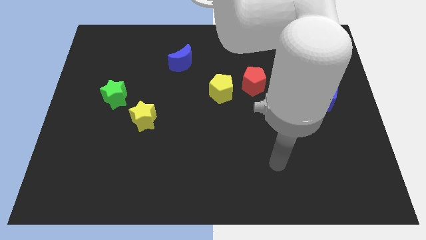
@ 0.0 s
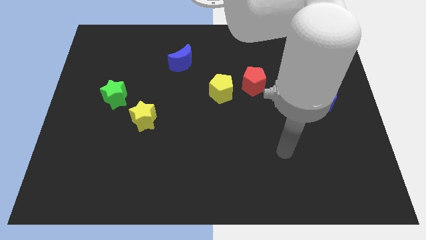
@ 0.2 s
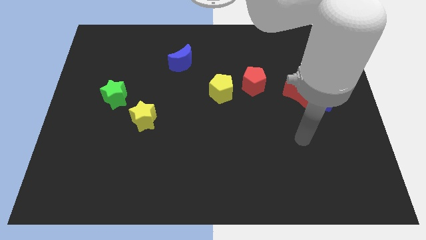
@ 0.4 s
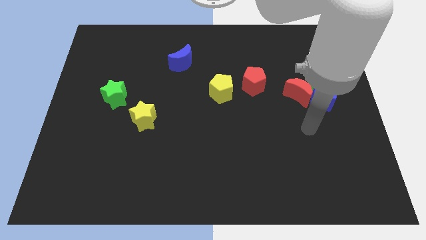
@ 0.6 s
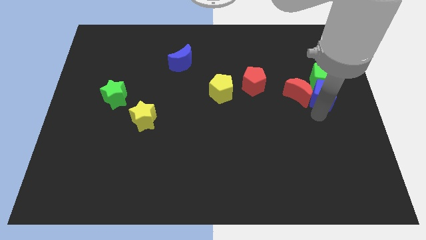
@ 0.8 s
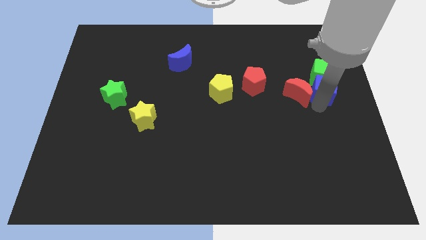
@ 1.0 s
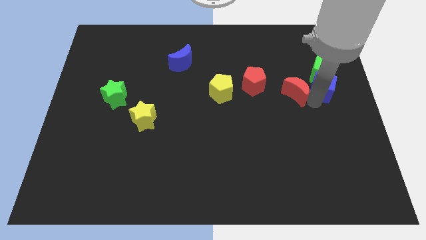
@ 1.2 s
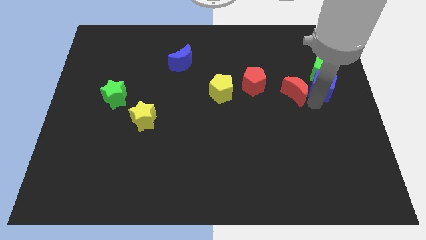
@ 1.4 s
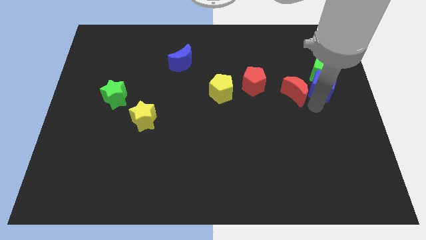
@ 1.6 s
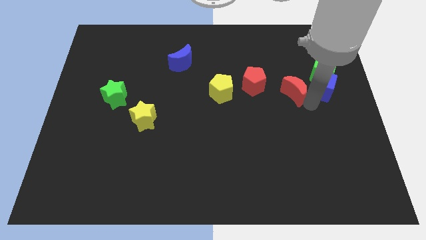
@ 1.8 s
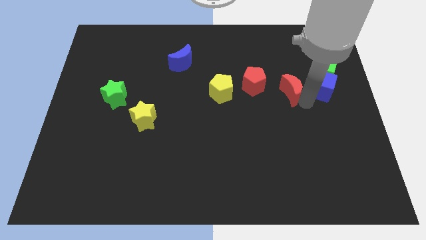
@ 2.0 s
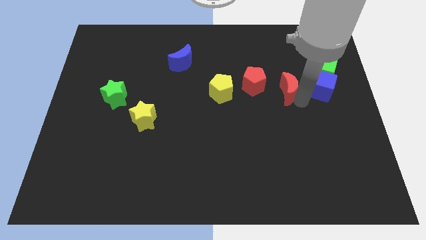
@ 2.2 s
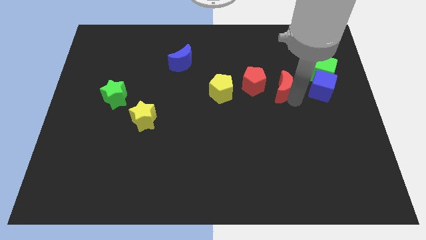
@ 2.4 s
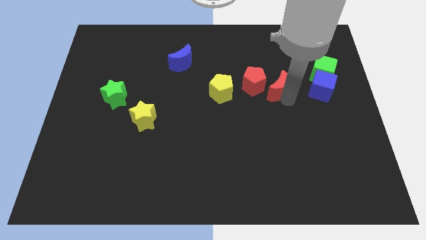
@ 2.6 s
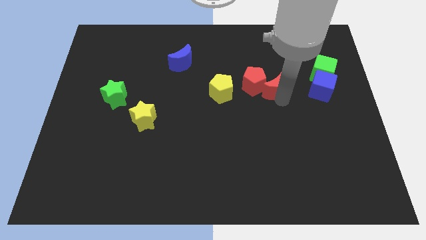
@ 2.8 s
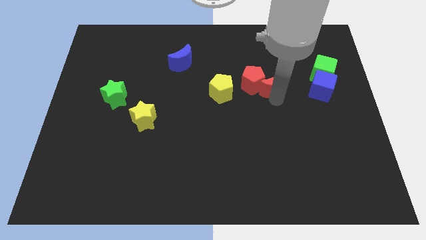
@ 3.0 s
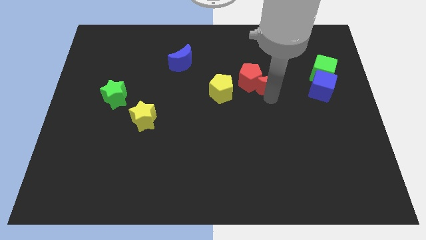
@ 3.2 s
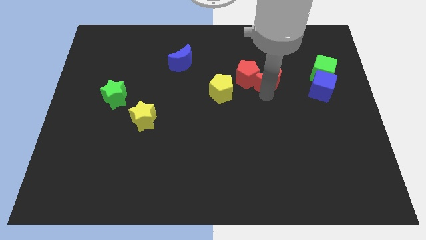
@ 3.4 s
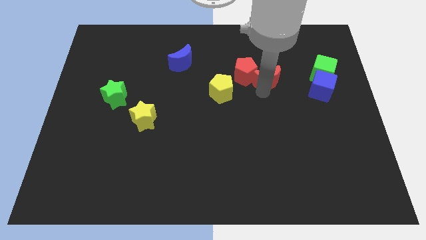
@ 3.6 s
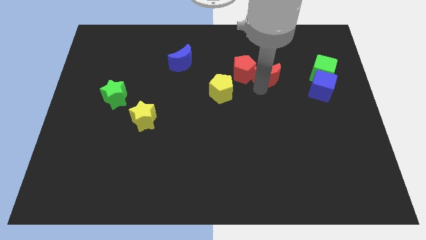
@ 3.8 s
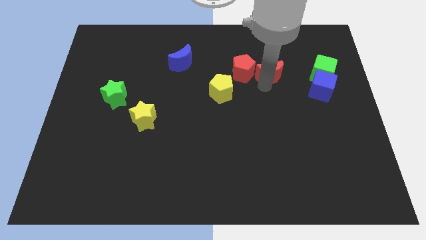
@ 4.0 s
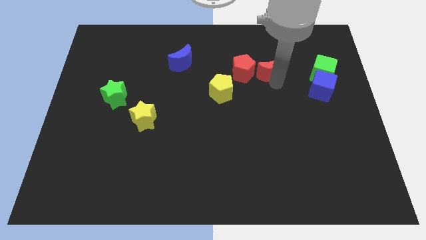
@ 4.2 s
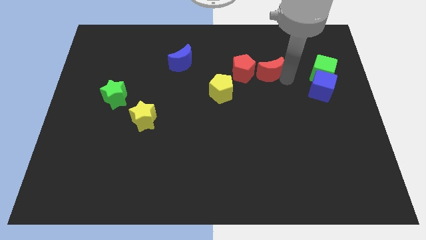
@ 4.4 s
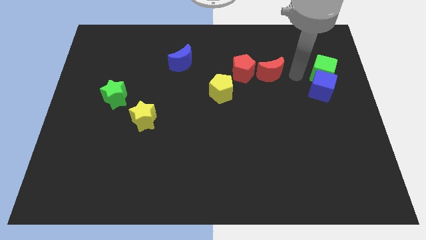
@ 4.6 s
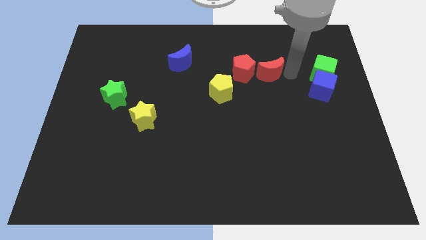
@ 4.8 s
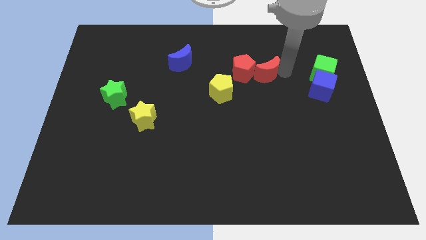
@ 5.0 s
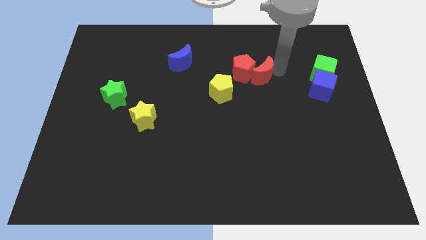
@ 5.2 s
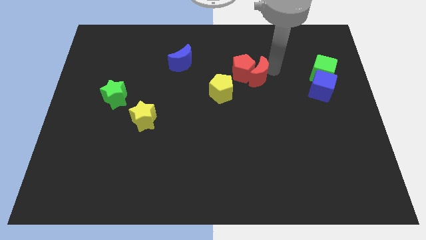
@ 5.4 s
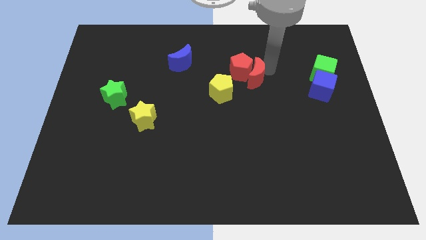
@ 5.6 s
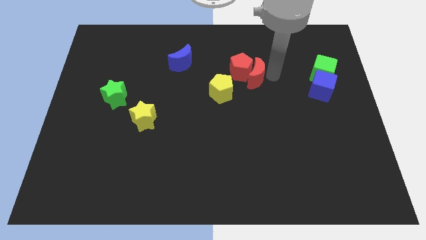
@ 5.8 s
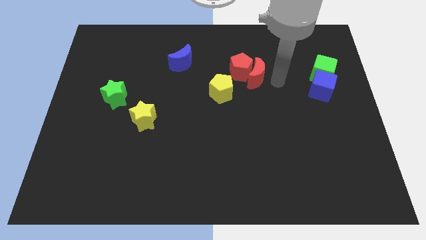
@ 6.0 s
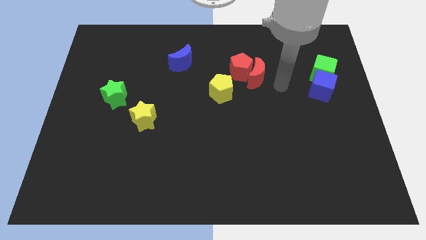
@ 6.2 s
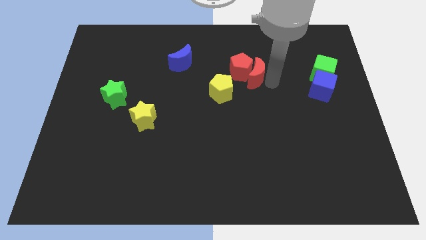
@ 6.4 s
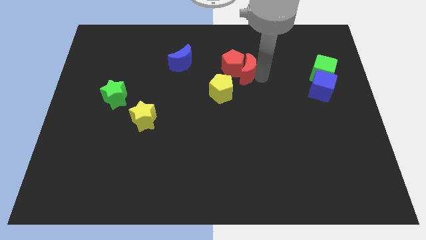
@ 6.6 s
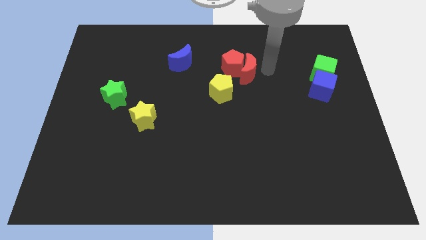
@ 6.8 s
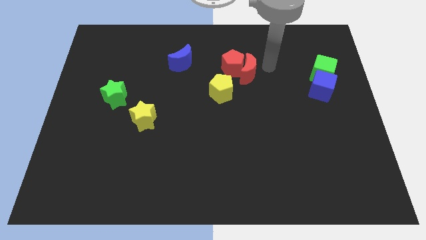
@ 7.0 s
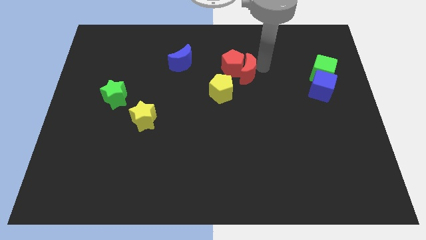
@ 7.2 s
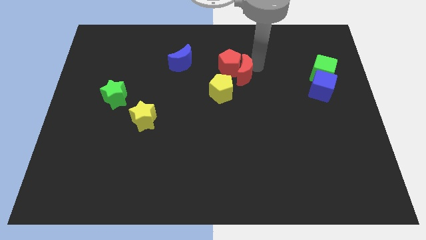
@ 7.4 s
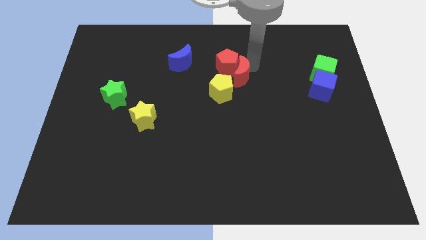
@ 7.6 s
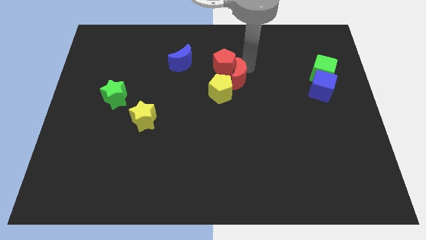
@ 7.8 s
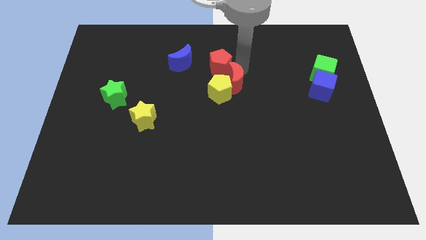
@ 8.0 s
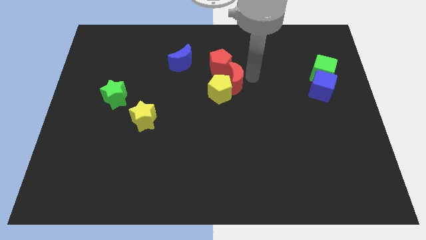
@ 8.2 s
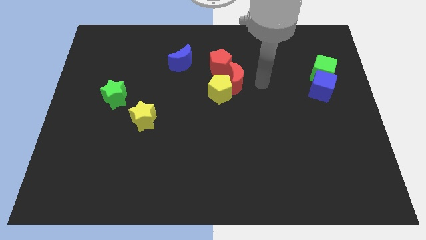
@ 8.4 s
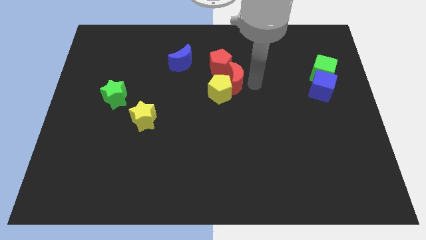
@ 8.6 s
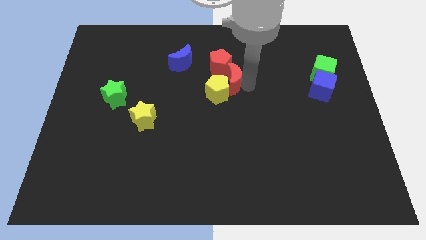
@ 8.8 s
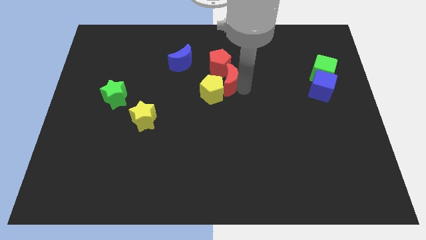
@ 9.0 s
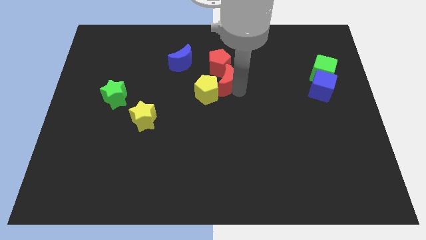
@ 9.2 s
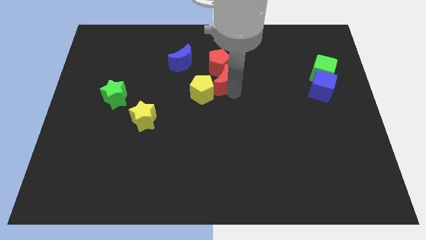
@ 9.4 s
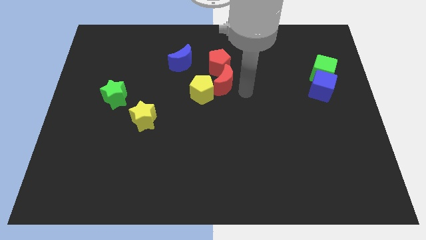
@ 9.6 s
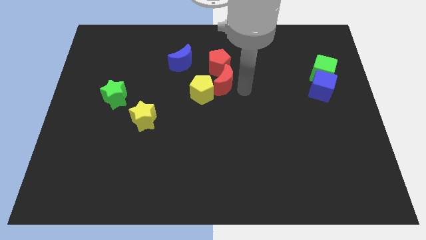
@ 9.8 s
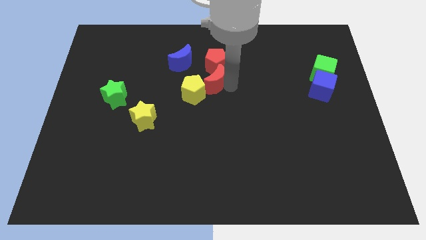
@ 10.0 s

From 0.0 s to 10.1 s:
push the red moon diagonally down and to the right of the blue moon

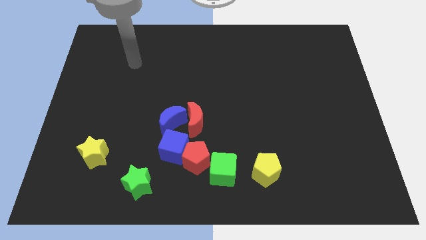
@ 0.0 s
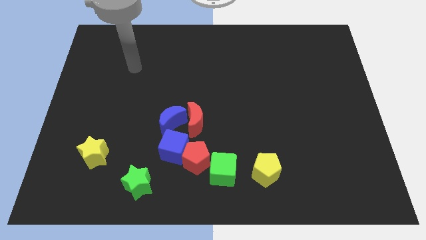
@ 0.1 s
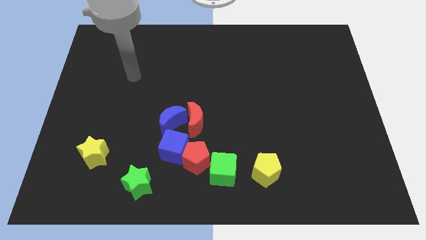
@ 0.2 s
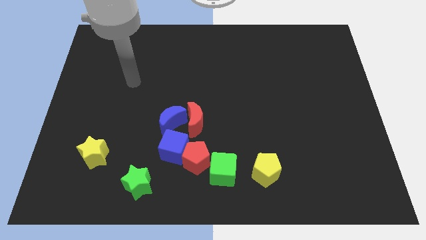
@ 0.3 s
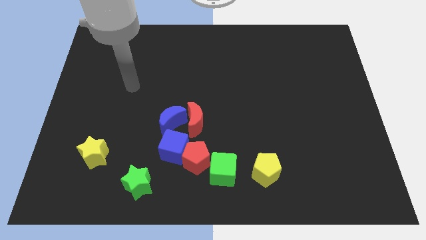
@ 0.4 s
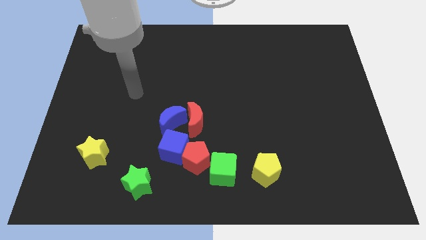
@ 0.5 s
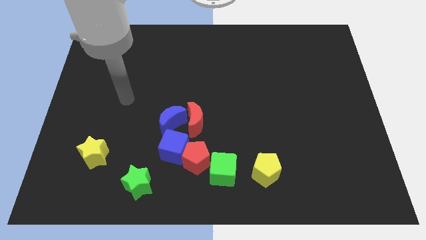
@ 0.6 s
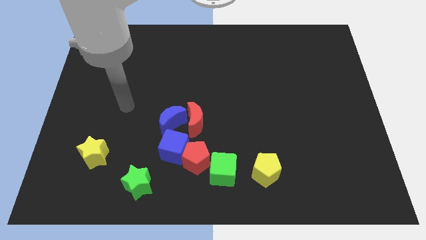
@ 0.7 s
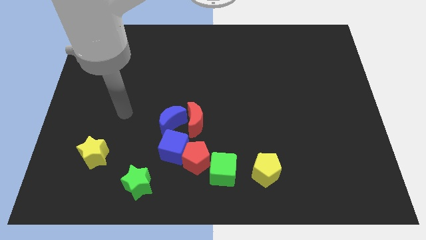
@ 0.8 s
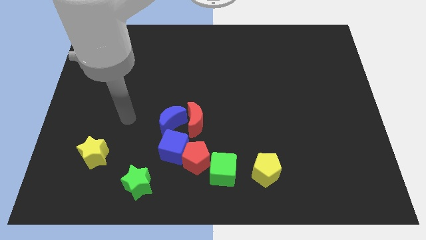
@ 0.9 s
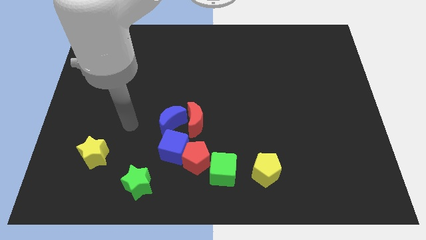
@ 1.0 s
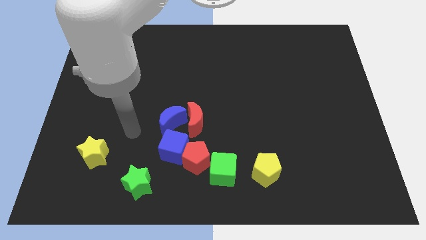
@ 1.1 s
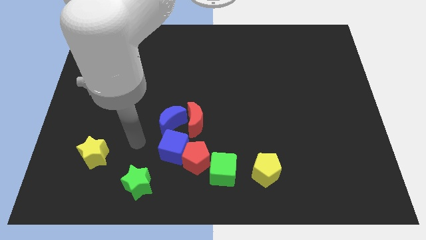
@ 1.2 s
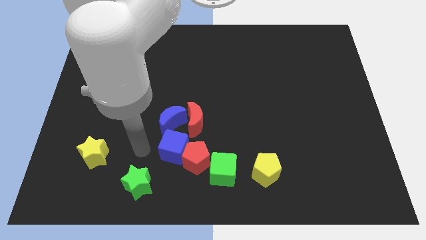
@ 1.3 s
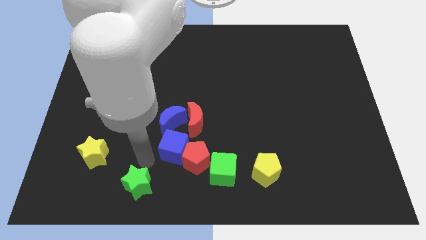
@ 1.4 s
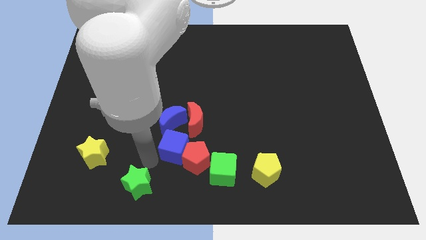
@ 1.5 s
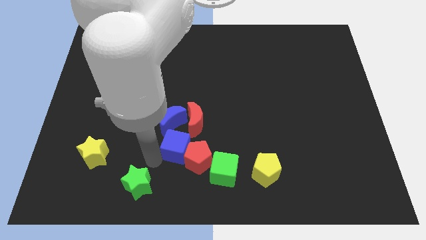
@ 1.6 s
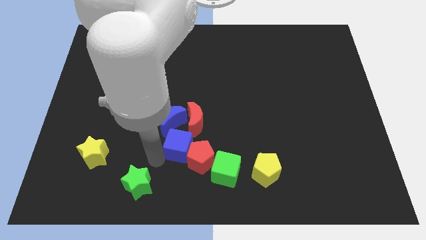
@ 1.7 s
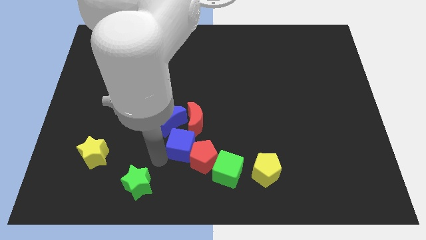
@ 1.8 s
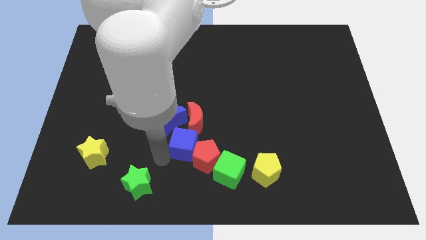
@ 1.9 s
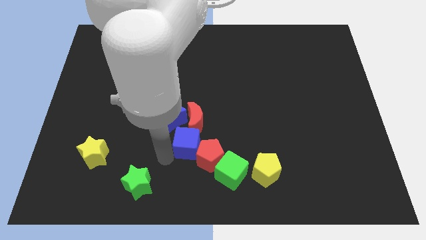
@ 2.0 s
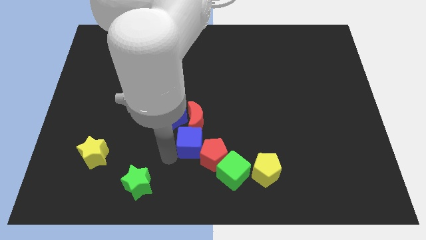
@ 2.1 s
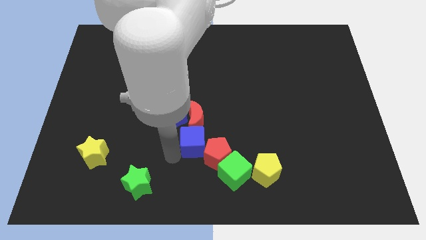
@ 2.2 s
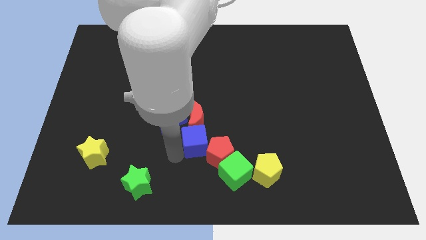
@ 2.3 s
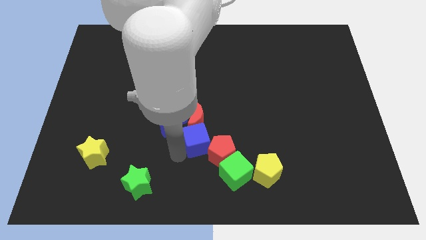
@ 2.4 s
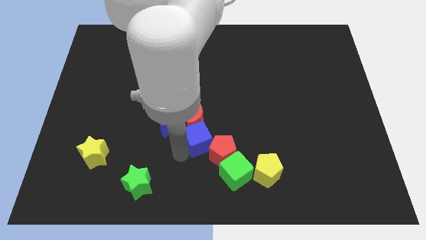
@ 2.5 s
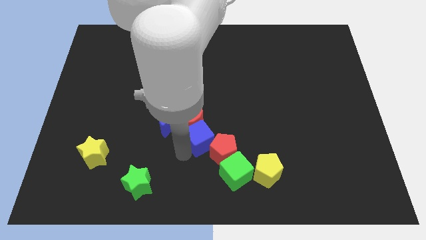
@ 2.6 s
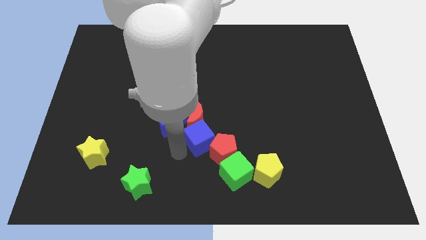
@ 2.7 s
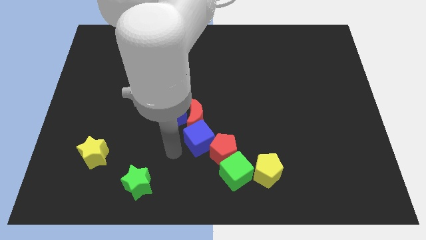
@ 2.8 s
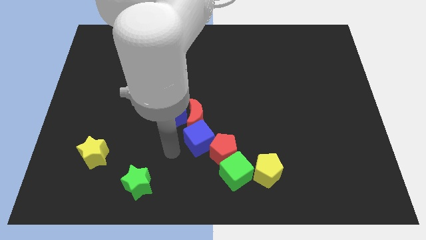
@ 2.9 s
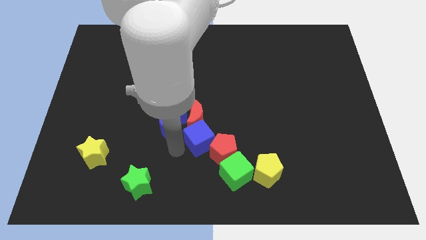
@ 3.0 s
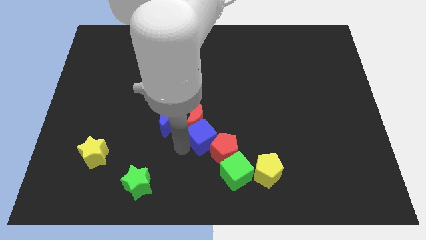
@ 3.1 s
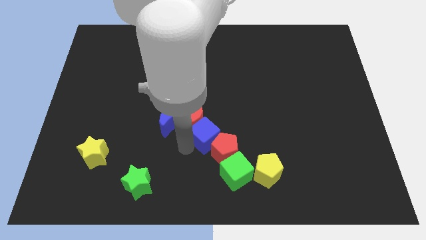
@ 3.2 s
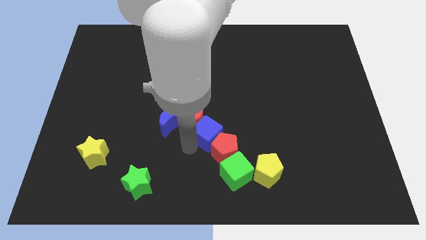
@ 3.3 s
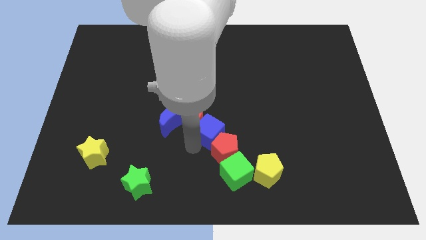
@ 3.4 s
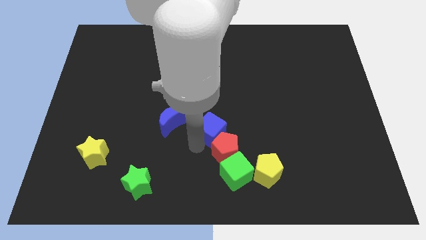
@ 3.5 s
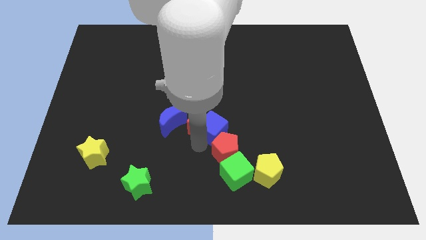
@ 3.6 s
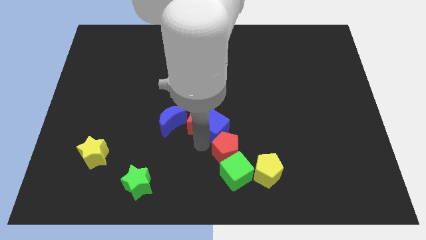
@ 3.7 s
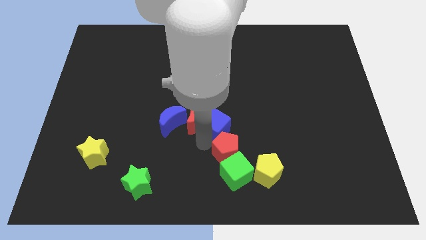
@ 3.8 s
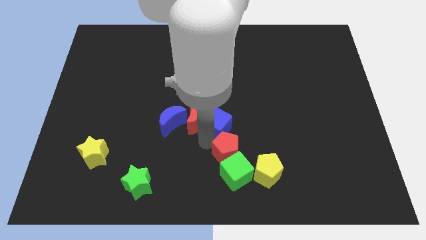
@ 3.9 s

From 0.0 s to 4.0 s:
slide the blue cube diagonally up and to the right of the red moon
